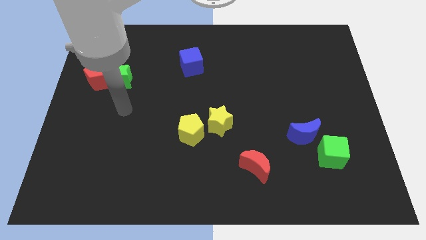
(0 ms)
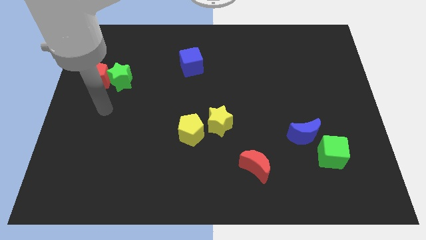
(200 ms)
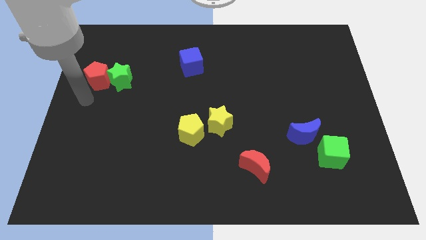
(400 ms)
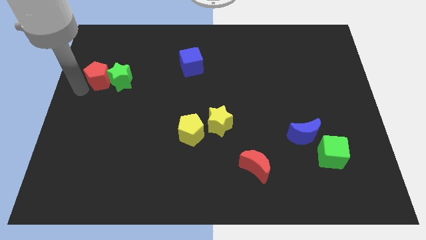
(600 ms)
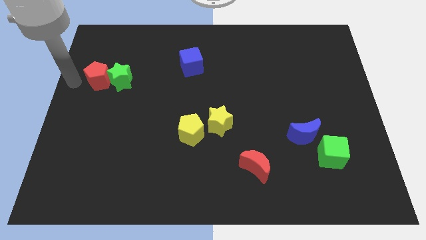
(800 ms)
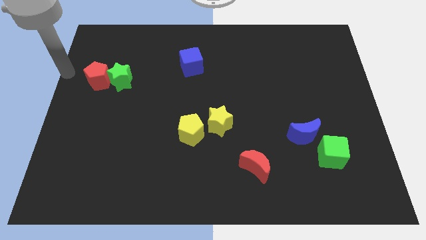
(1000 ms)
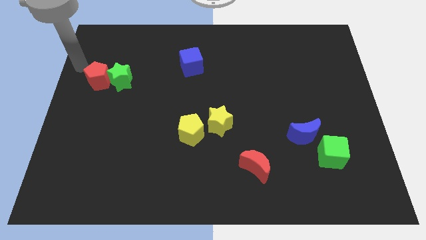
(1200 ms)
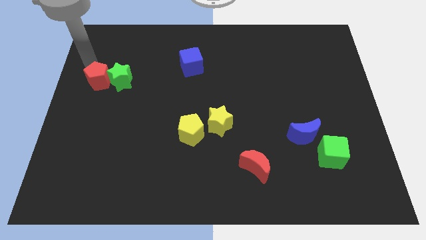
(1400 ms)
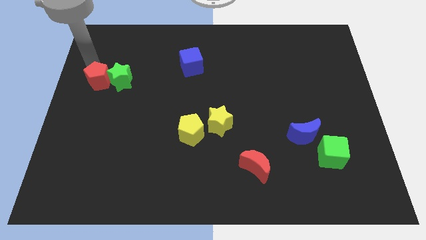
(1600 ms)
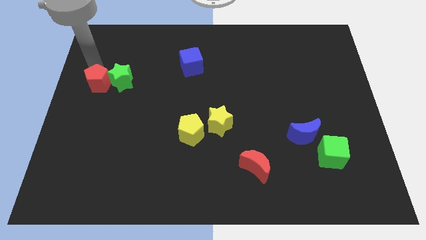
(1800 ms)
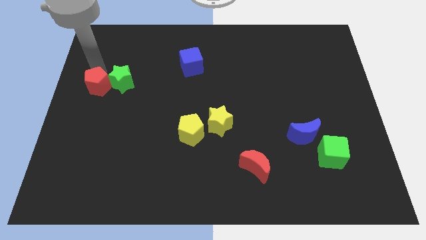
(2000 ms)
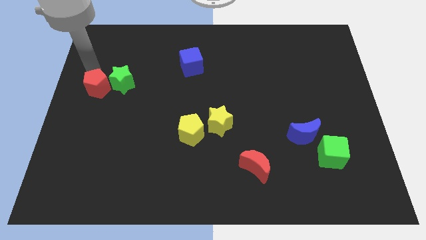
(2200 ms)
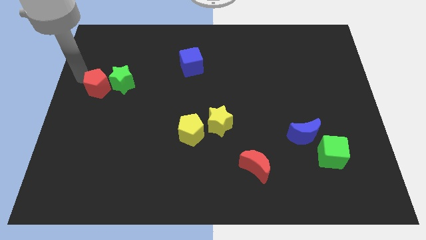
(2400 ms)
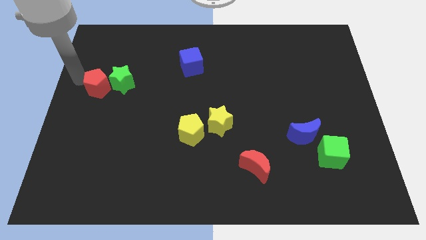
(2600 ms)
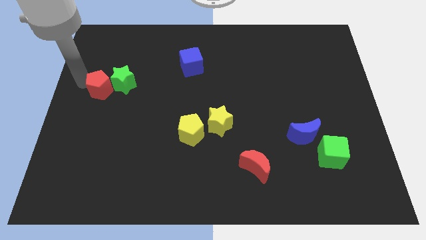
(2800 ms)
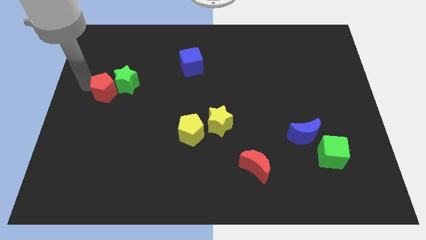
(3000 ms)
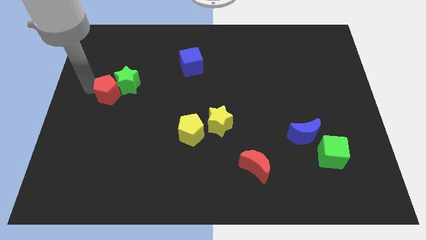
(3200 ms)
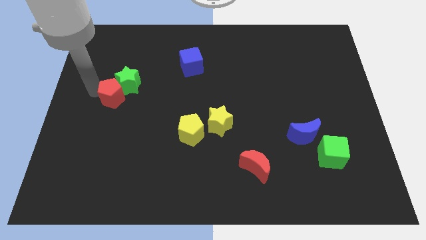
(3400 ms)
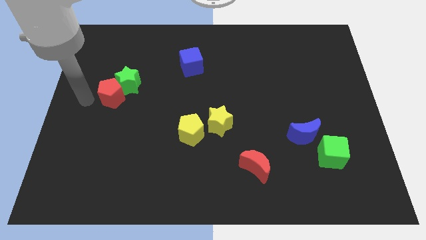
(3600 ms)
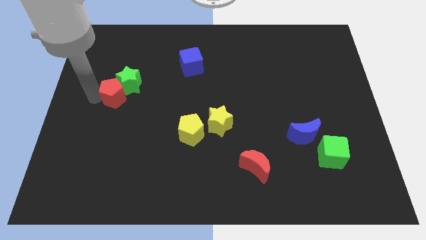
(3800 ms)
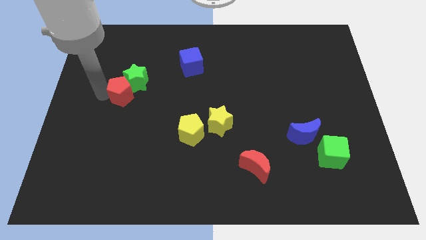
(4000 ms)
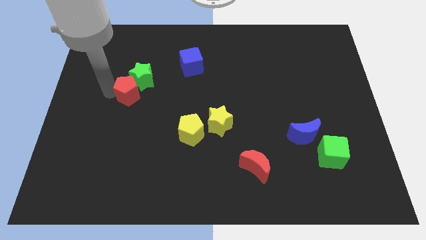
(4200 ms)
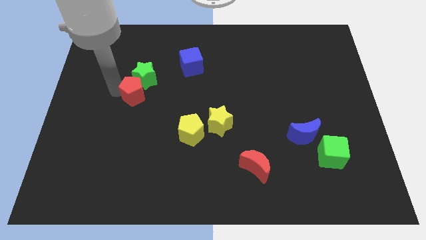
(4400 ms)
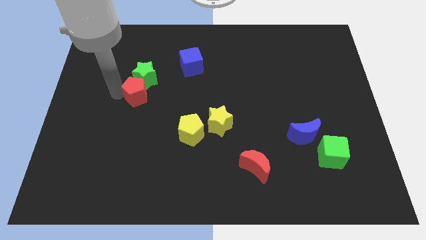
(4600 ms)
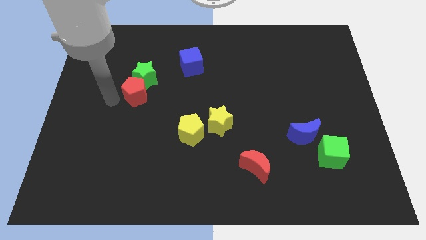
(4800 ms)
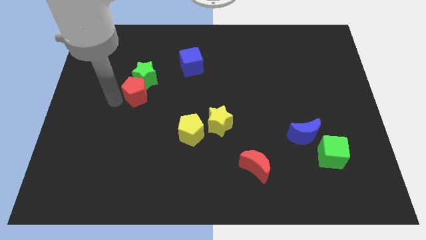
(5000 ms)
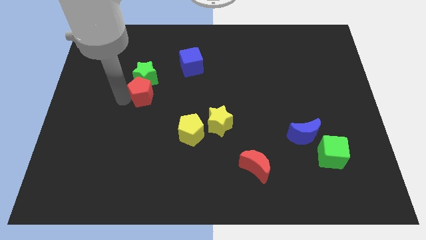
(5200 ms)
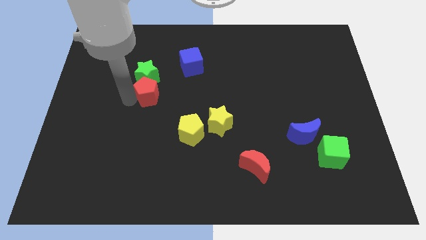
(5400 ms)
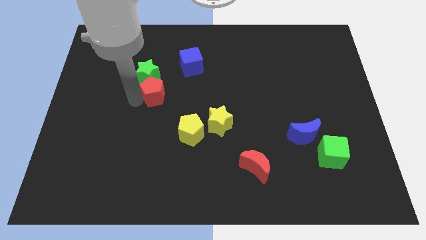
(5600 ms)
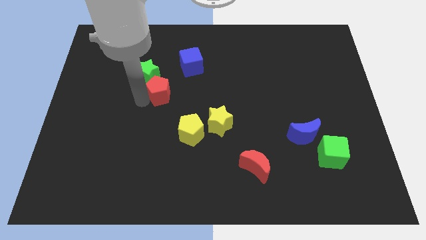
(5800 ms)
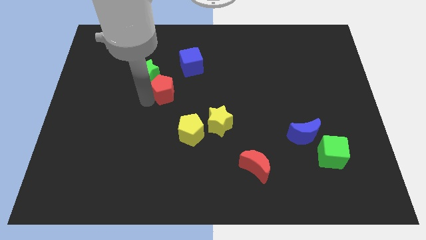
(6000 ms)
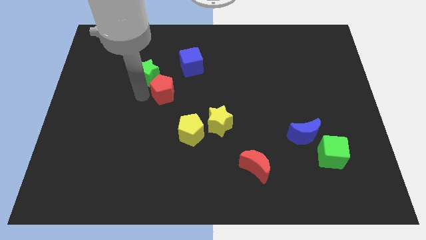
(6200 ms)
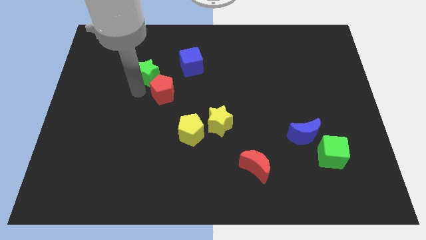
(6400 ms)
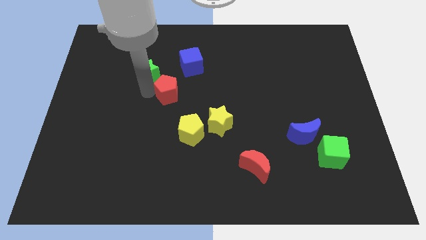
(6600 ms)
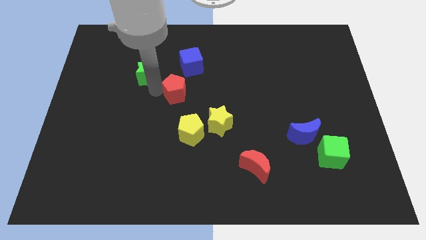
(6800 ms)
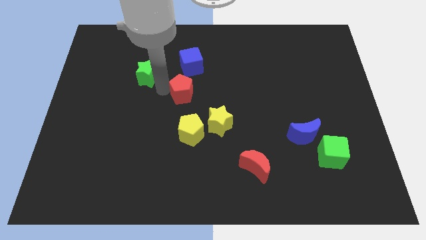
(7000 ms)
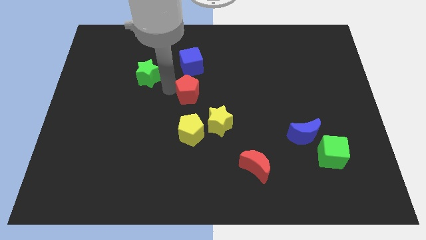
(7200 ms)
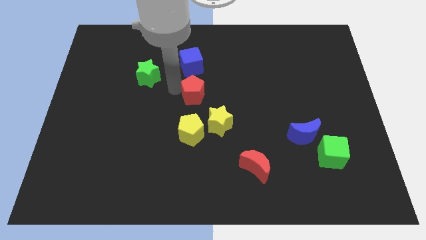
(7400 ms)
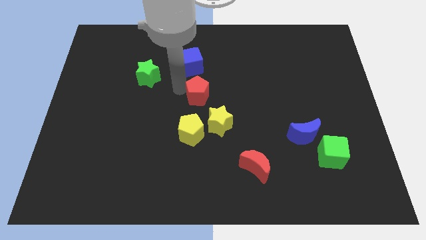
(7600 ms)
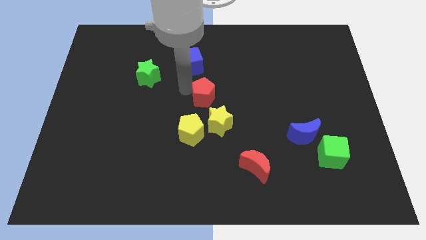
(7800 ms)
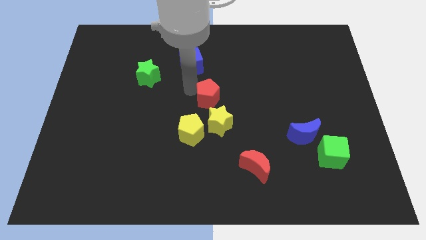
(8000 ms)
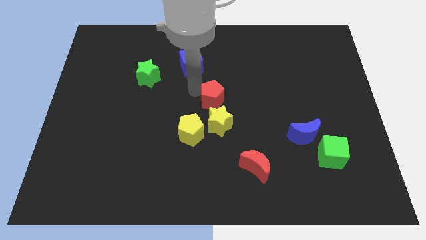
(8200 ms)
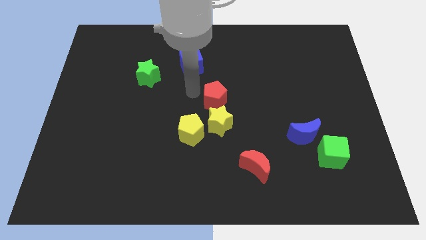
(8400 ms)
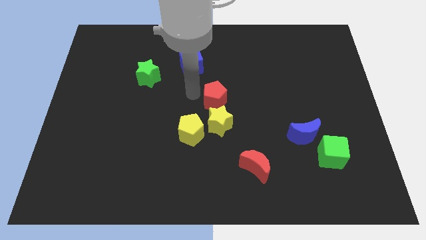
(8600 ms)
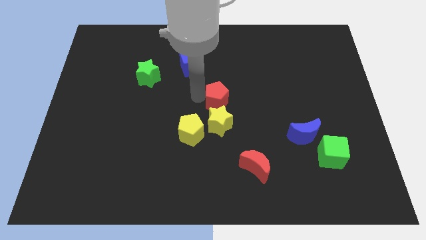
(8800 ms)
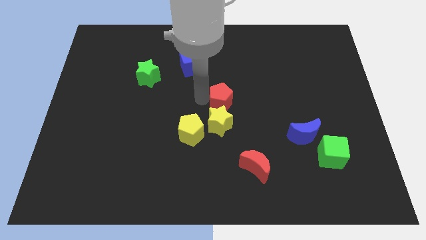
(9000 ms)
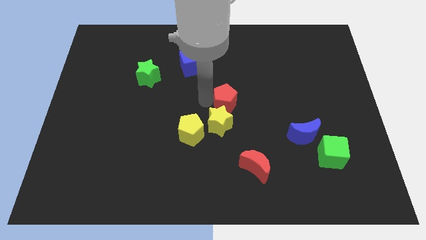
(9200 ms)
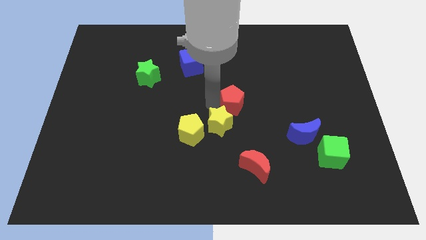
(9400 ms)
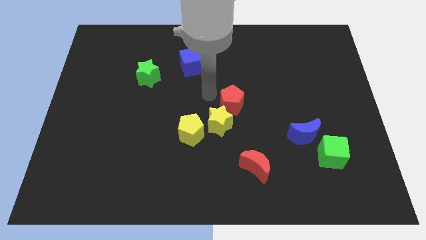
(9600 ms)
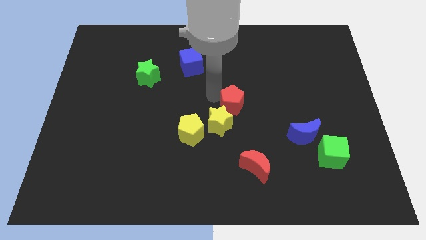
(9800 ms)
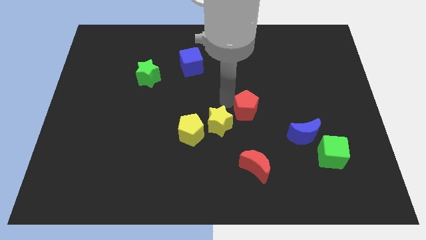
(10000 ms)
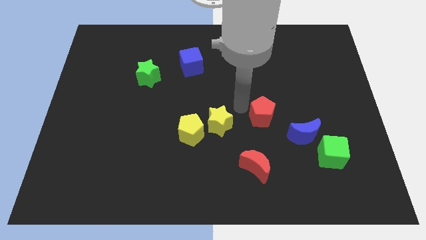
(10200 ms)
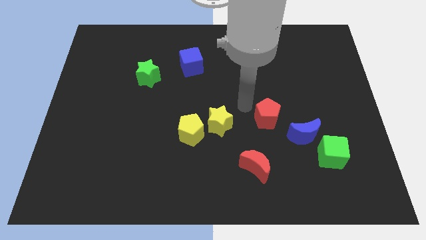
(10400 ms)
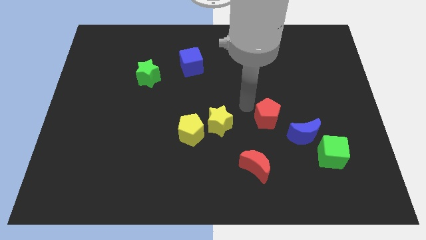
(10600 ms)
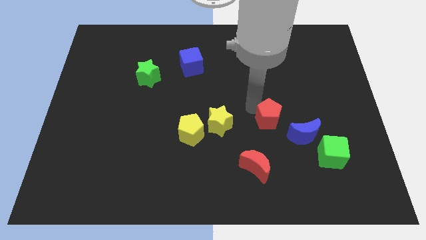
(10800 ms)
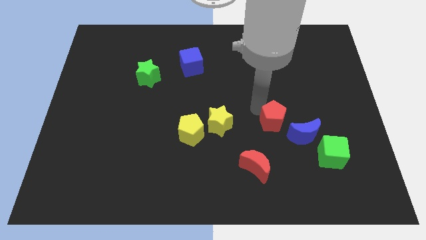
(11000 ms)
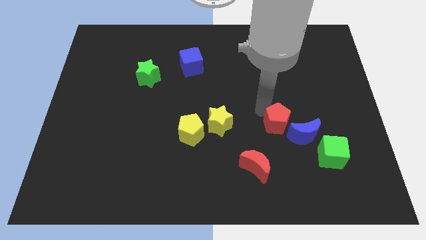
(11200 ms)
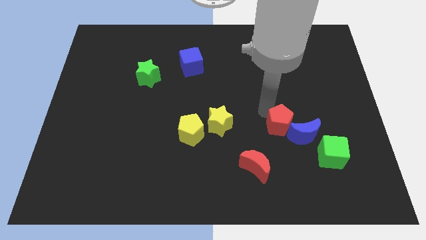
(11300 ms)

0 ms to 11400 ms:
put the red pentagon next to the blue moon

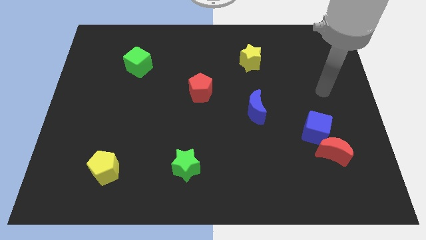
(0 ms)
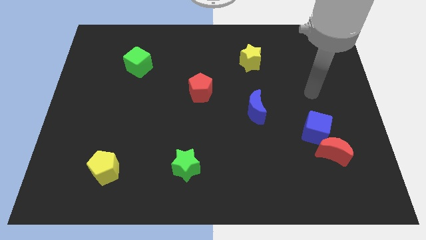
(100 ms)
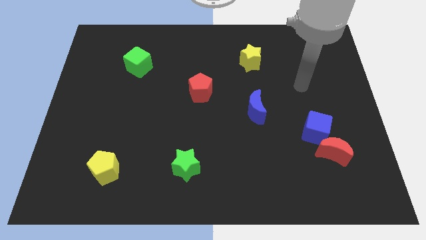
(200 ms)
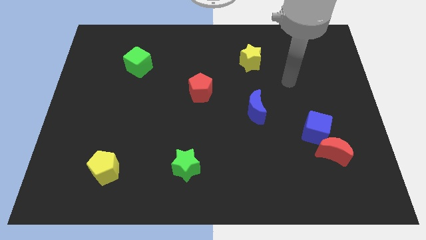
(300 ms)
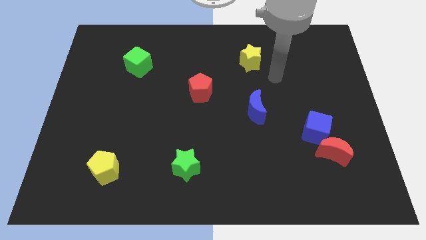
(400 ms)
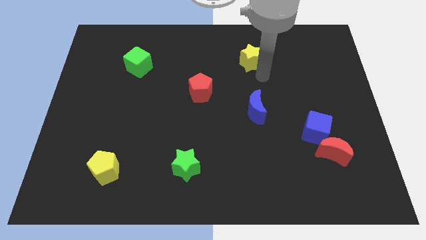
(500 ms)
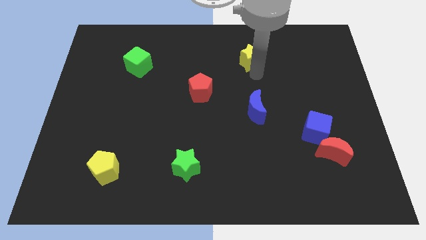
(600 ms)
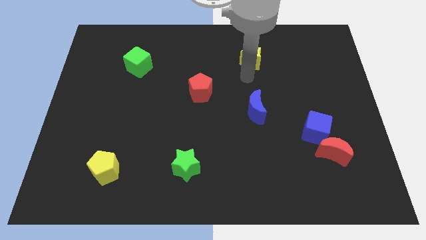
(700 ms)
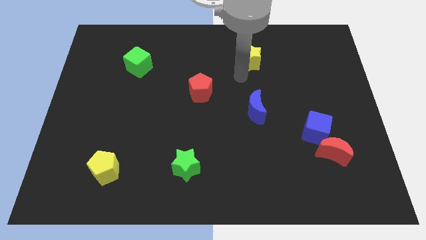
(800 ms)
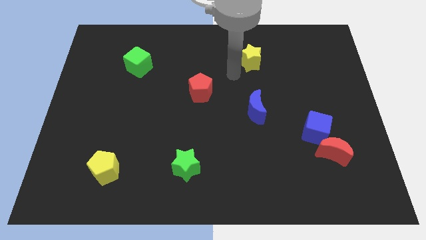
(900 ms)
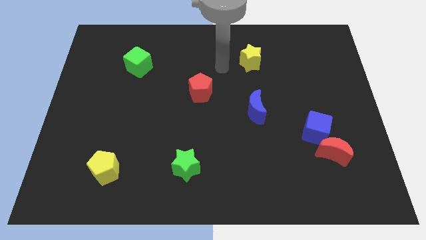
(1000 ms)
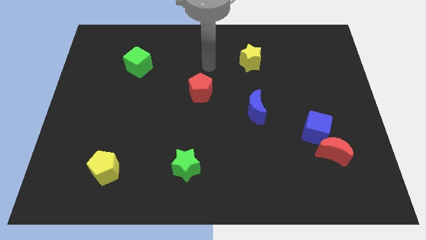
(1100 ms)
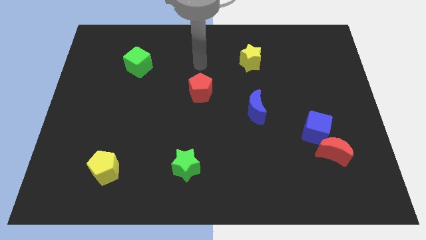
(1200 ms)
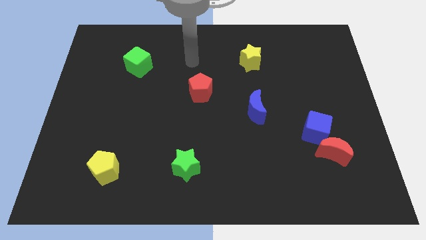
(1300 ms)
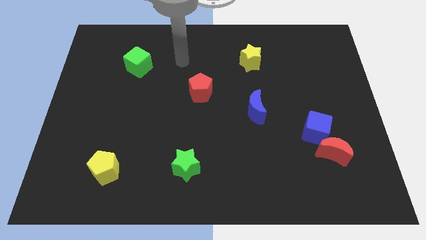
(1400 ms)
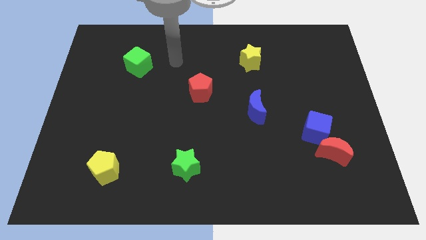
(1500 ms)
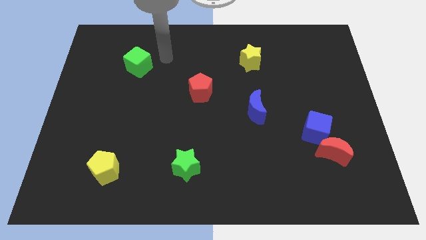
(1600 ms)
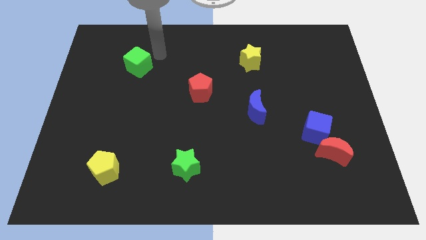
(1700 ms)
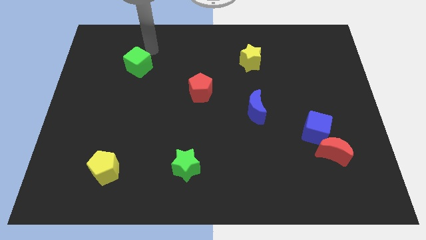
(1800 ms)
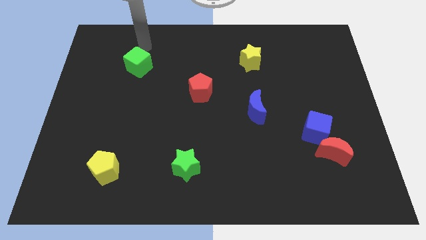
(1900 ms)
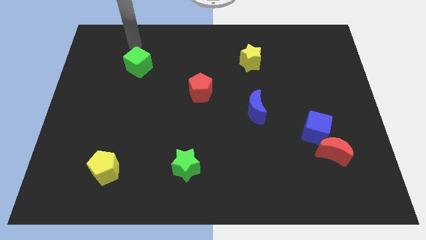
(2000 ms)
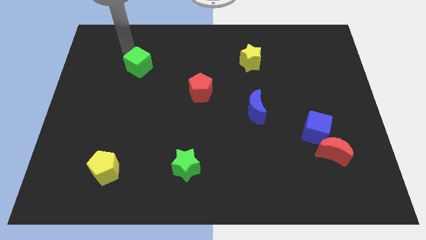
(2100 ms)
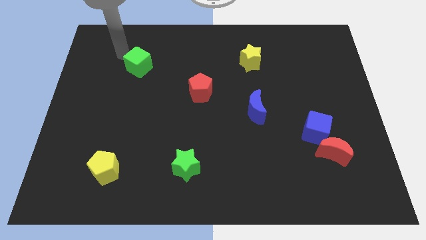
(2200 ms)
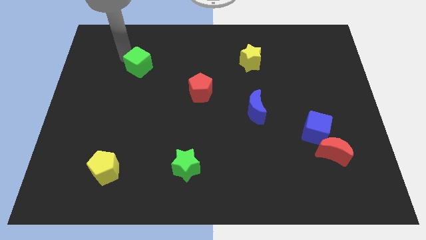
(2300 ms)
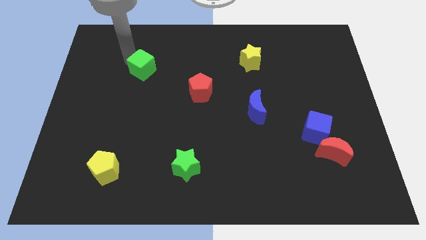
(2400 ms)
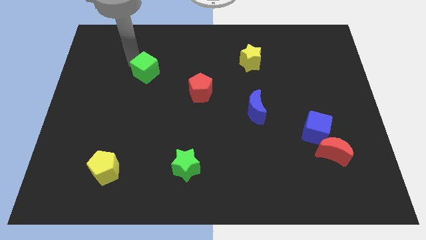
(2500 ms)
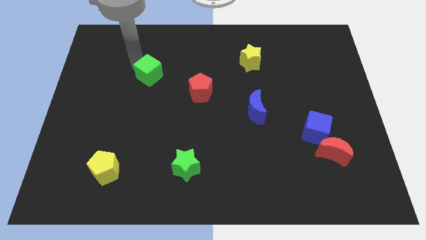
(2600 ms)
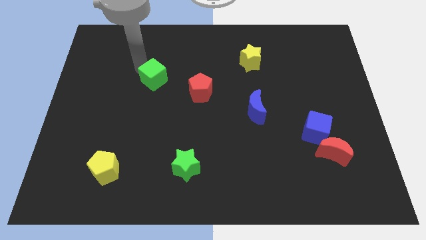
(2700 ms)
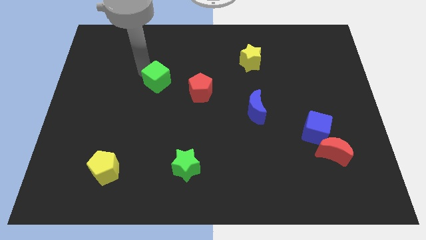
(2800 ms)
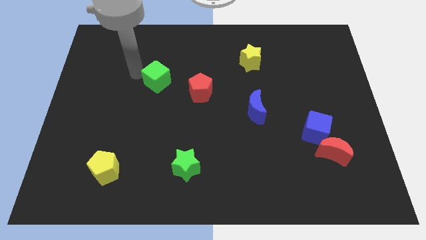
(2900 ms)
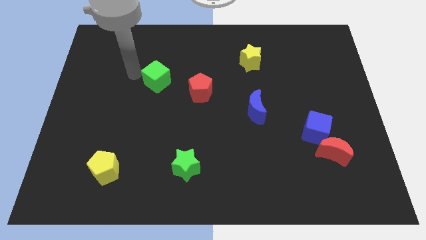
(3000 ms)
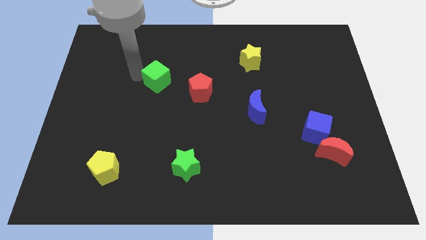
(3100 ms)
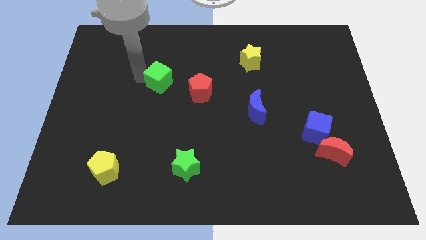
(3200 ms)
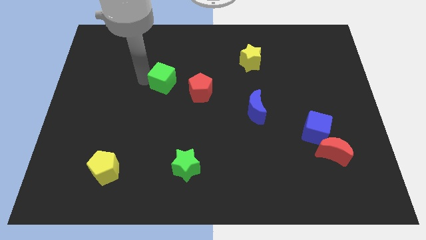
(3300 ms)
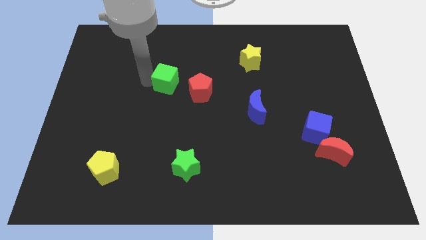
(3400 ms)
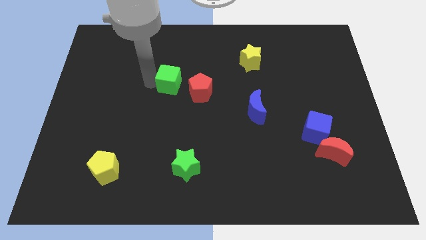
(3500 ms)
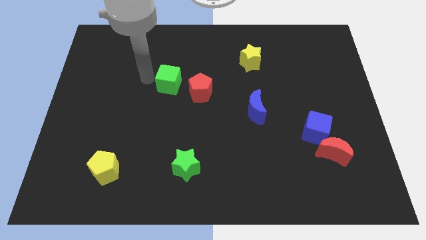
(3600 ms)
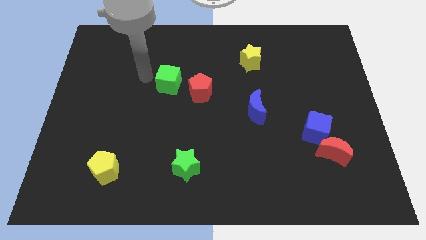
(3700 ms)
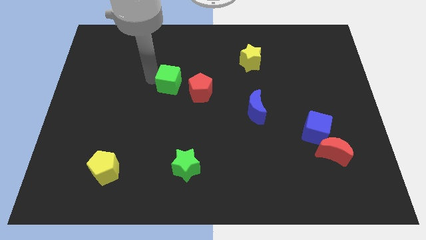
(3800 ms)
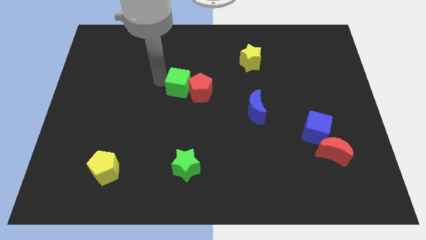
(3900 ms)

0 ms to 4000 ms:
move the green cube to the red pentagon
